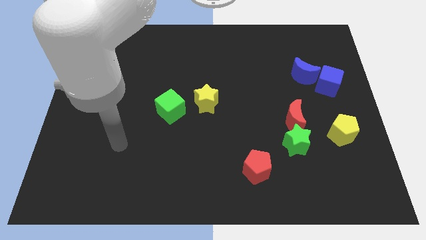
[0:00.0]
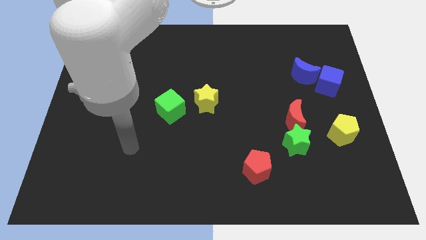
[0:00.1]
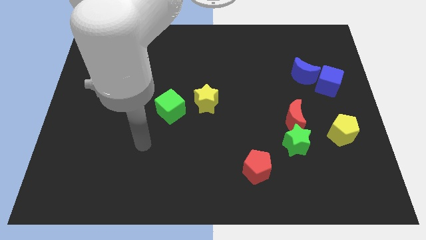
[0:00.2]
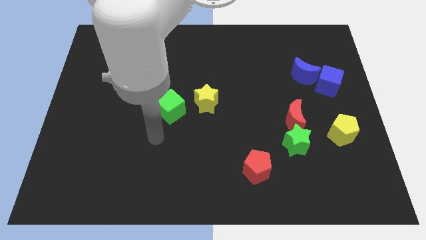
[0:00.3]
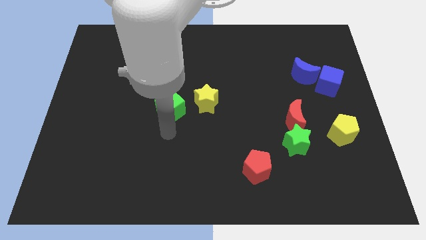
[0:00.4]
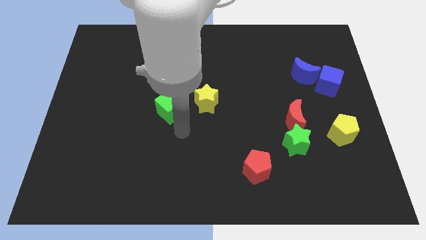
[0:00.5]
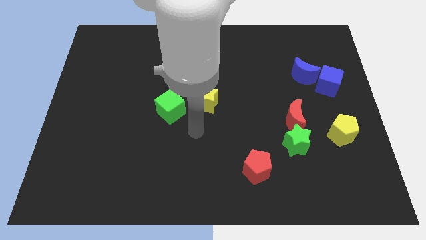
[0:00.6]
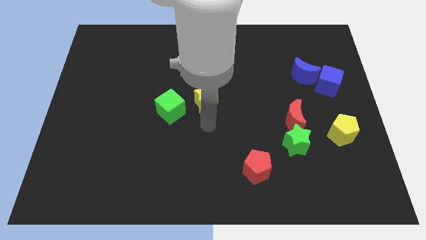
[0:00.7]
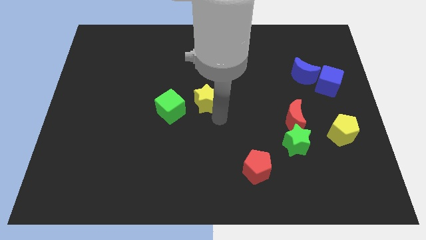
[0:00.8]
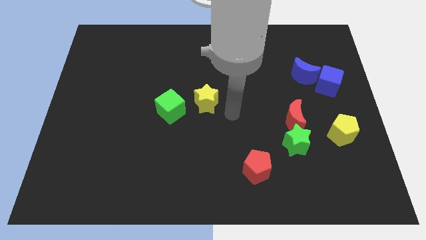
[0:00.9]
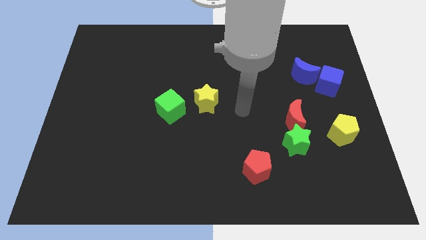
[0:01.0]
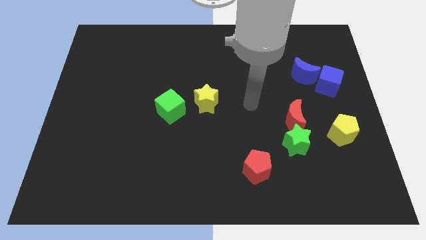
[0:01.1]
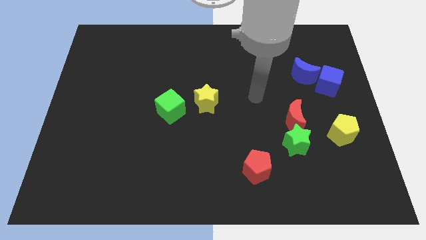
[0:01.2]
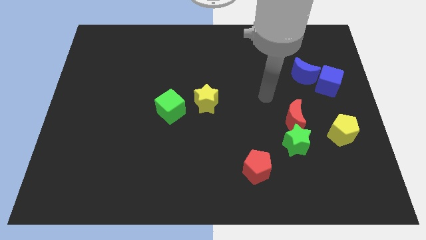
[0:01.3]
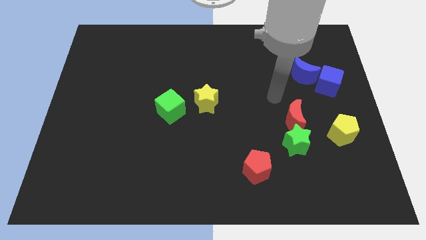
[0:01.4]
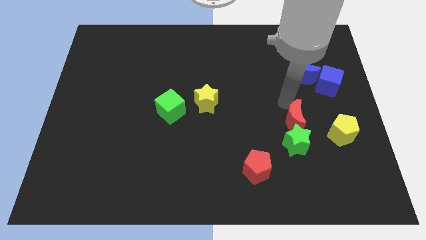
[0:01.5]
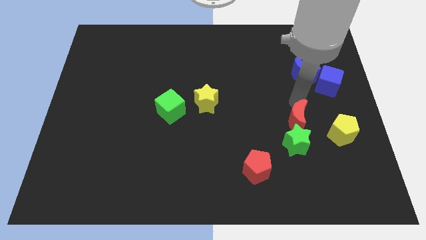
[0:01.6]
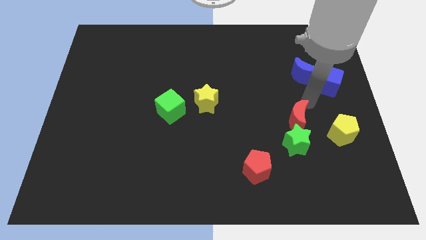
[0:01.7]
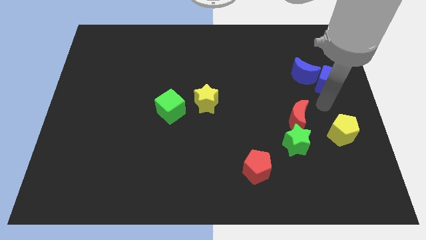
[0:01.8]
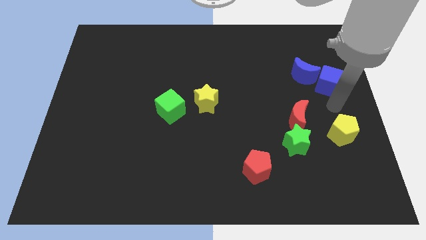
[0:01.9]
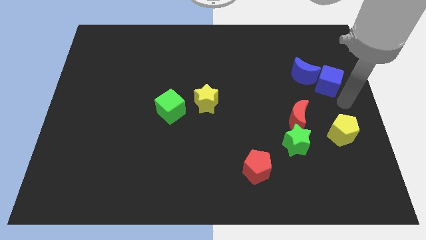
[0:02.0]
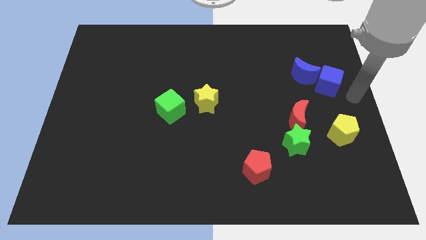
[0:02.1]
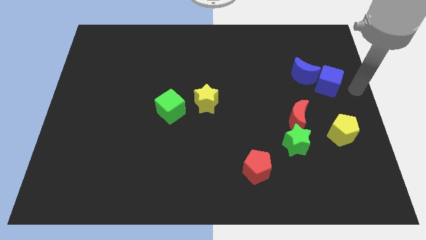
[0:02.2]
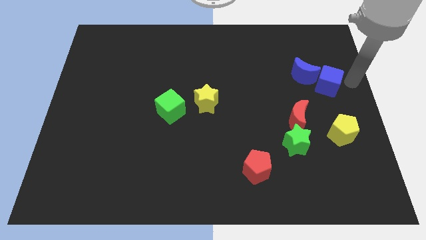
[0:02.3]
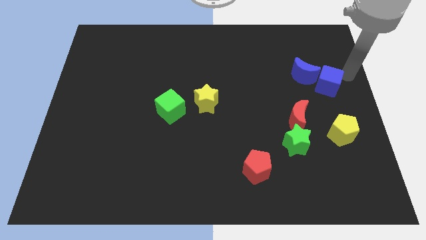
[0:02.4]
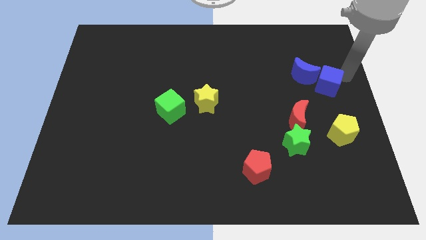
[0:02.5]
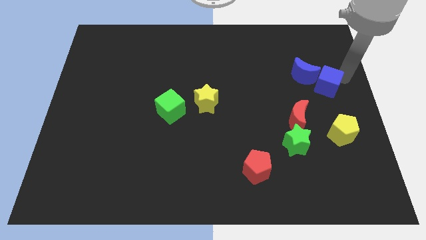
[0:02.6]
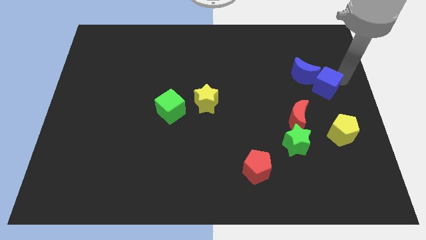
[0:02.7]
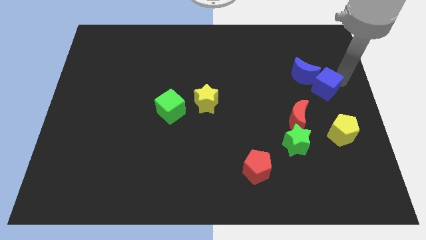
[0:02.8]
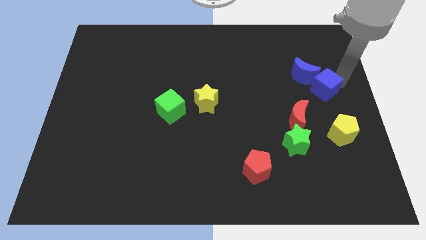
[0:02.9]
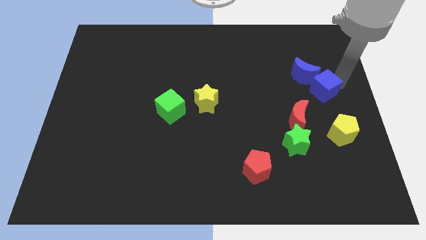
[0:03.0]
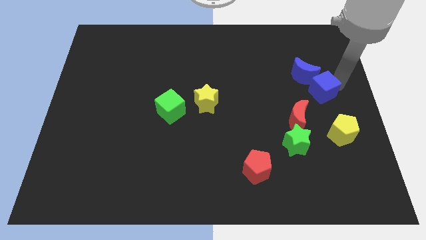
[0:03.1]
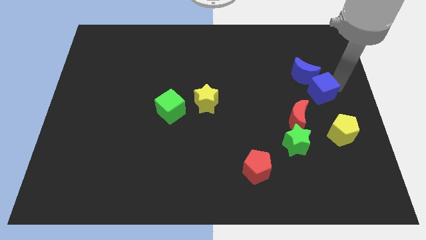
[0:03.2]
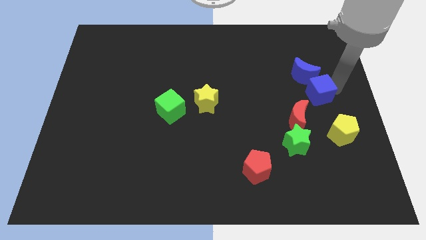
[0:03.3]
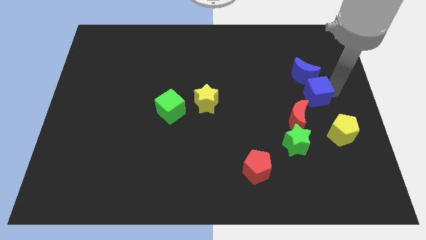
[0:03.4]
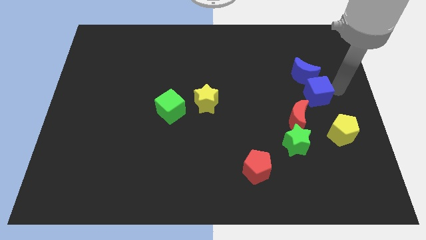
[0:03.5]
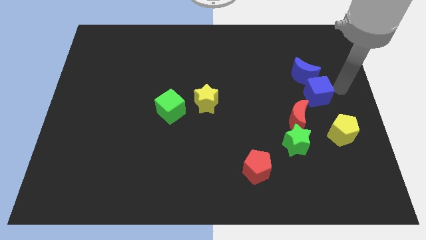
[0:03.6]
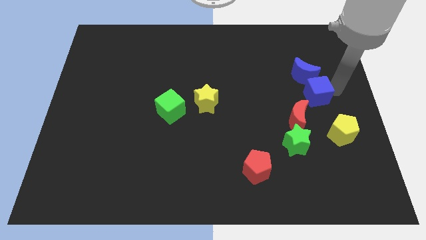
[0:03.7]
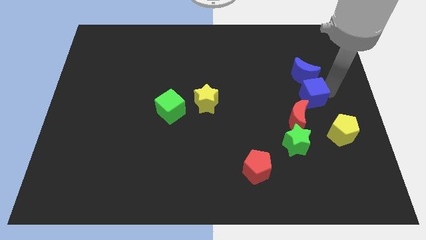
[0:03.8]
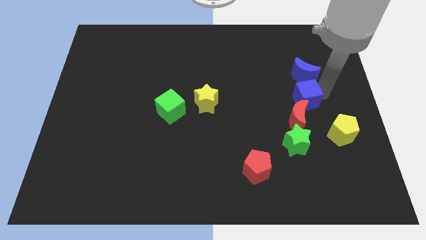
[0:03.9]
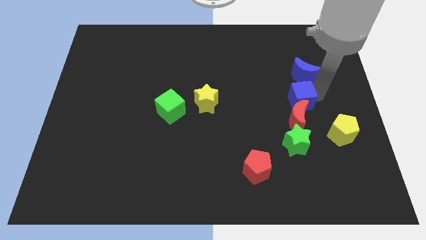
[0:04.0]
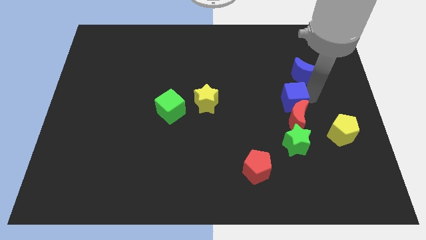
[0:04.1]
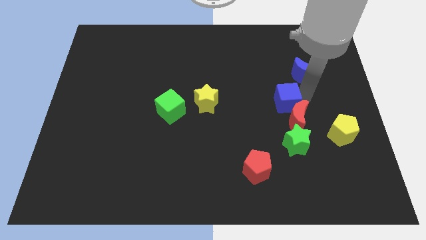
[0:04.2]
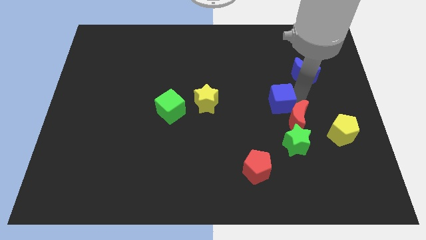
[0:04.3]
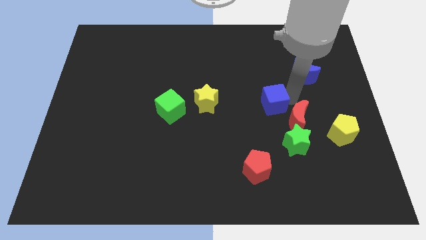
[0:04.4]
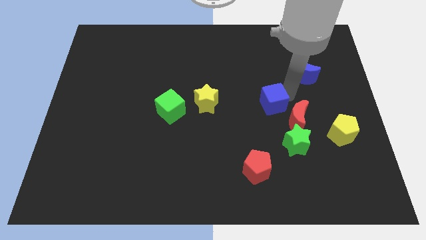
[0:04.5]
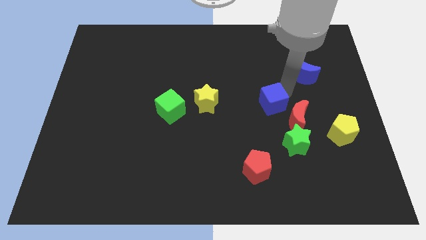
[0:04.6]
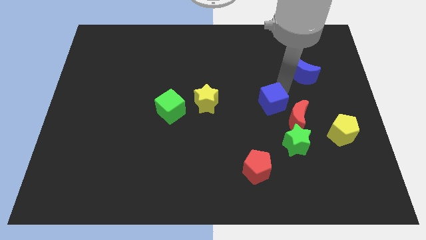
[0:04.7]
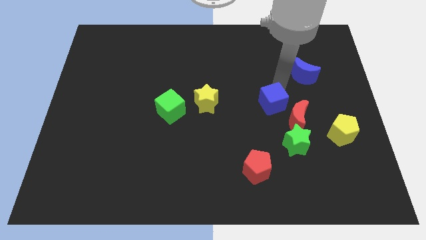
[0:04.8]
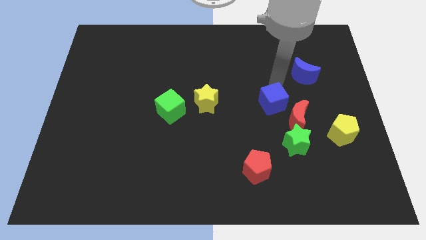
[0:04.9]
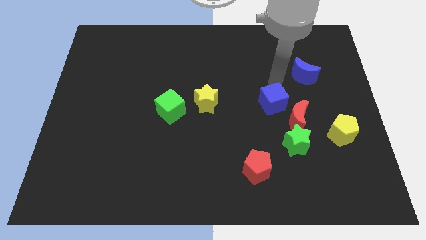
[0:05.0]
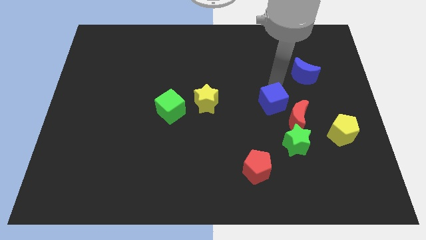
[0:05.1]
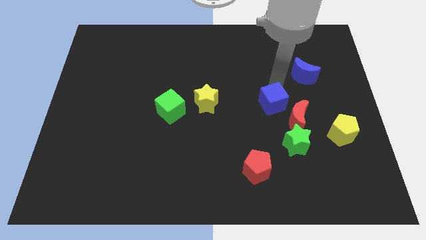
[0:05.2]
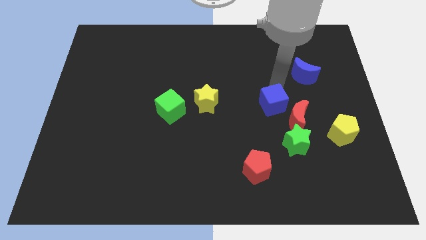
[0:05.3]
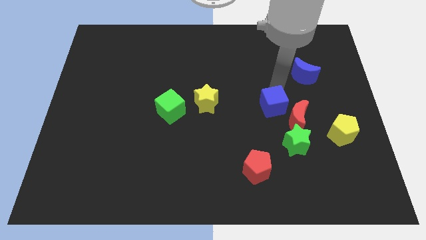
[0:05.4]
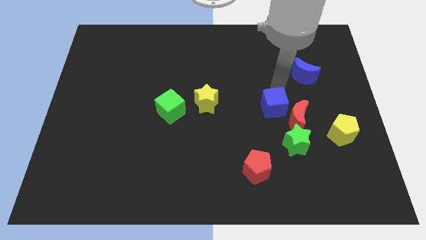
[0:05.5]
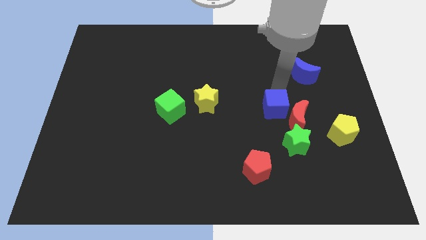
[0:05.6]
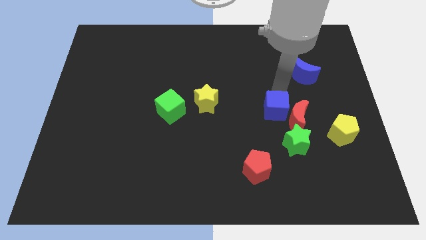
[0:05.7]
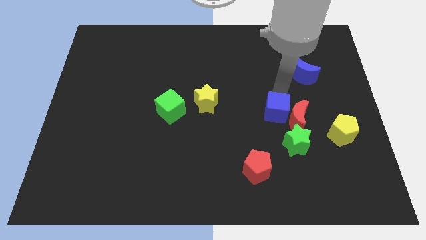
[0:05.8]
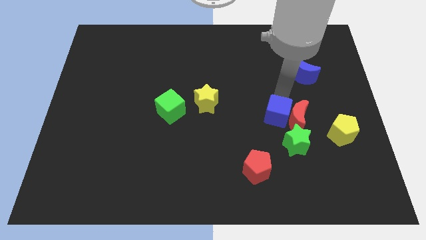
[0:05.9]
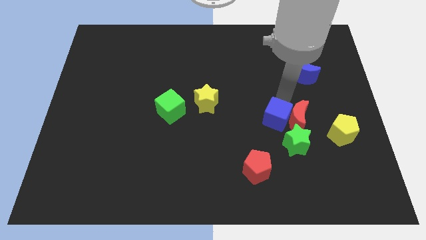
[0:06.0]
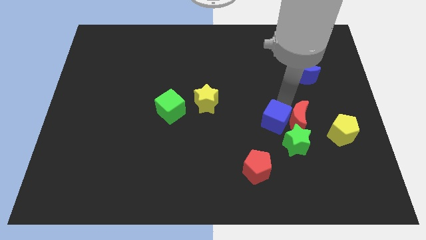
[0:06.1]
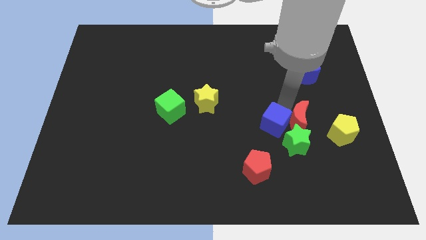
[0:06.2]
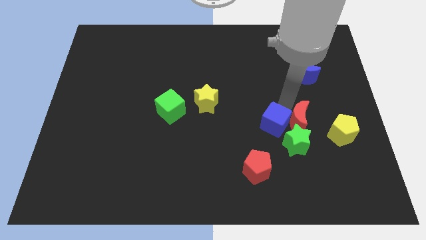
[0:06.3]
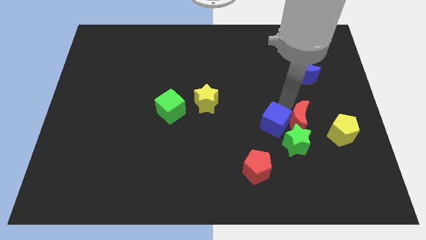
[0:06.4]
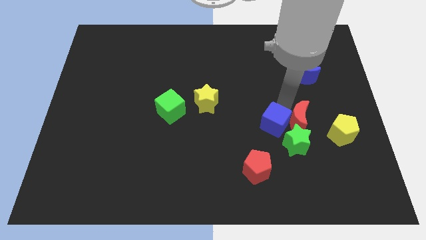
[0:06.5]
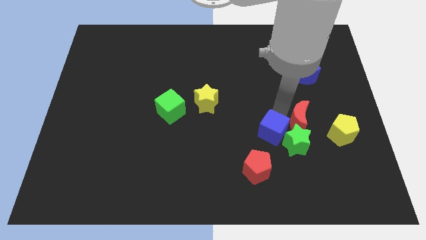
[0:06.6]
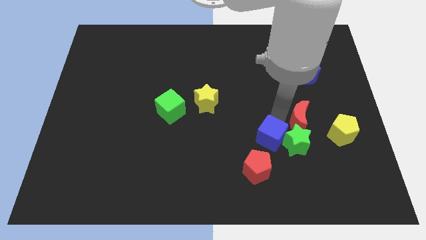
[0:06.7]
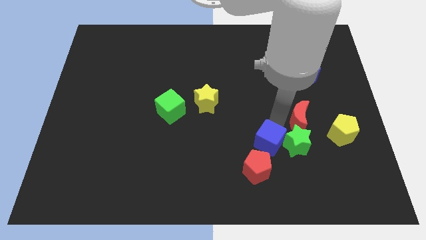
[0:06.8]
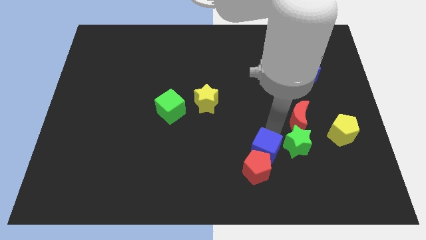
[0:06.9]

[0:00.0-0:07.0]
put the blue cube next to the red pentagon

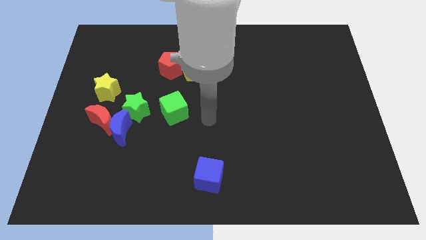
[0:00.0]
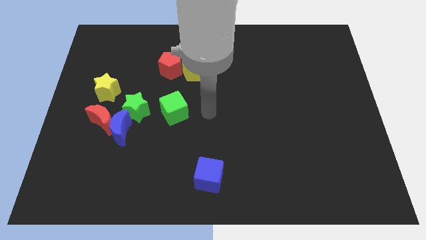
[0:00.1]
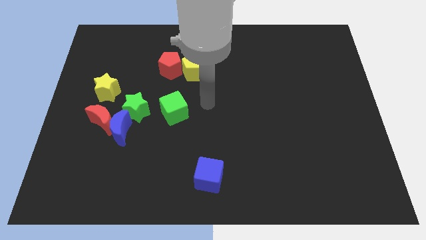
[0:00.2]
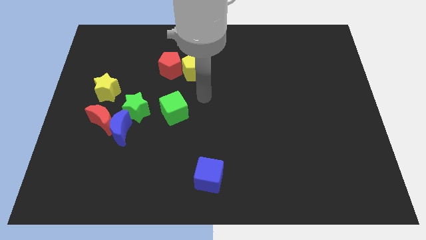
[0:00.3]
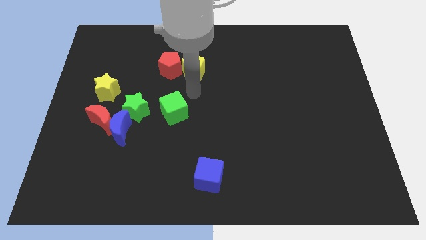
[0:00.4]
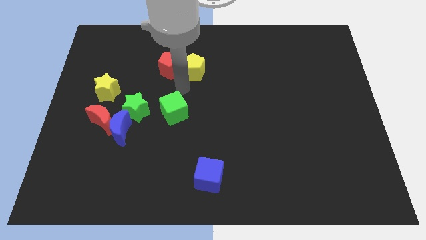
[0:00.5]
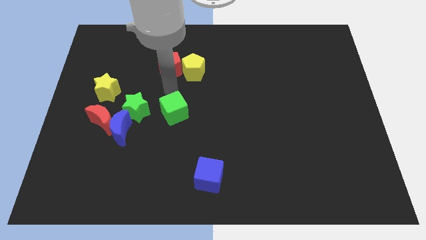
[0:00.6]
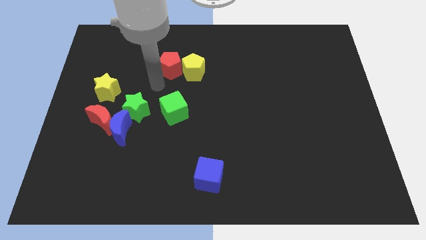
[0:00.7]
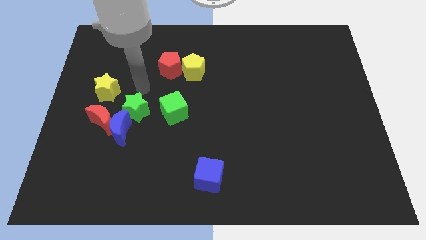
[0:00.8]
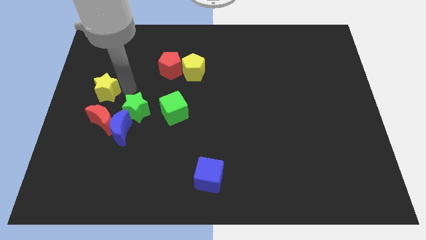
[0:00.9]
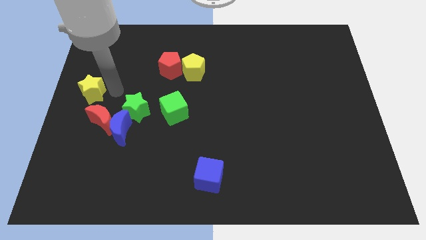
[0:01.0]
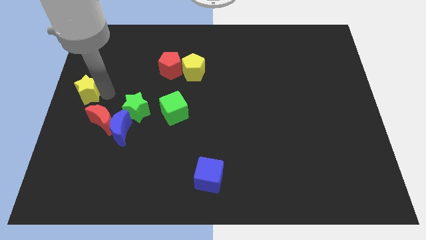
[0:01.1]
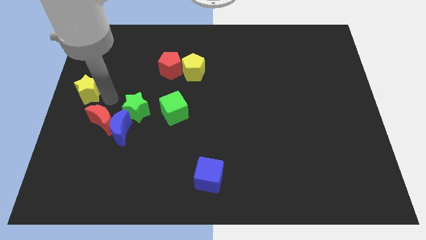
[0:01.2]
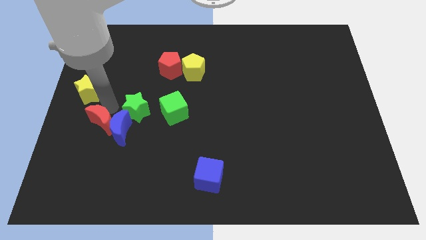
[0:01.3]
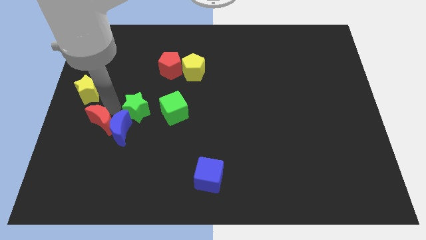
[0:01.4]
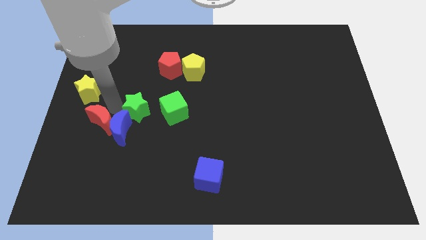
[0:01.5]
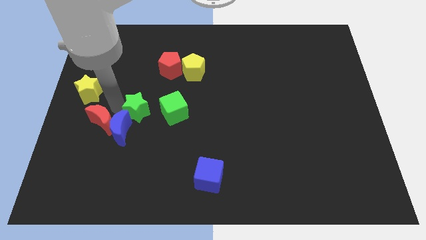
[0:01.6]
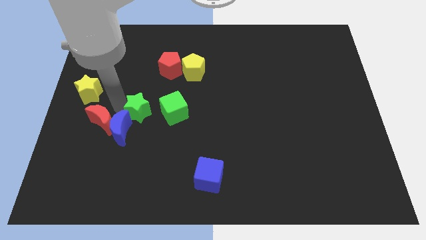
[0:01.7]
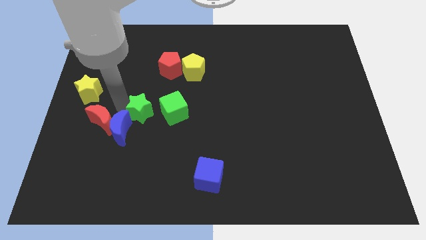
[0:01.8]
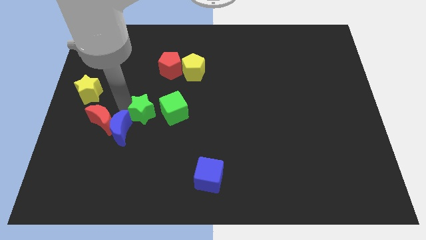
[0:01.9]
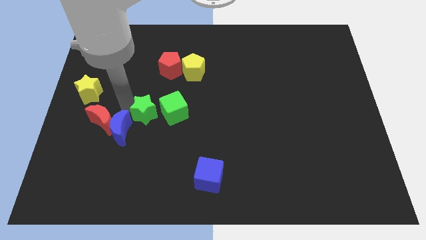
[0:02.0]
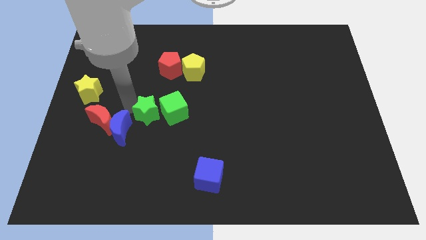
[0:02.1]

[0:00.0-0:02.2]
slide the green star to the green cube
